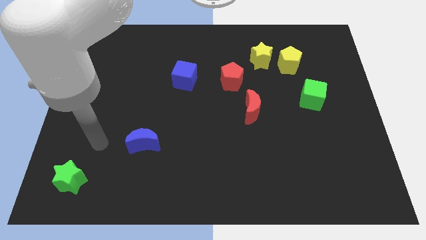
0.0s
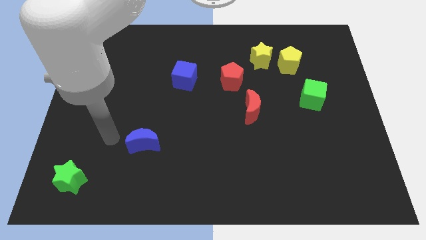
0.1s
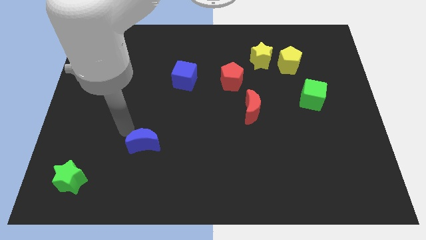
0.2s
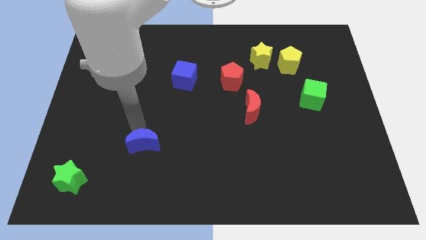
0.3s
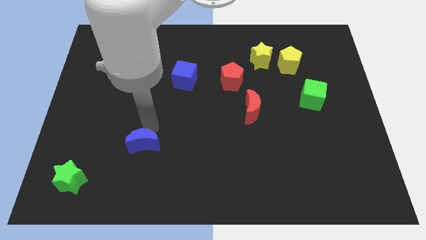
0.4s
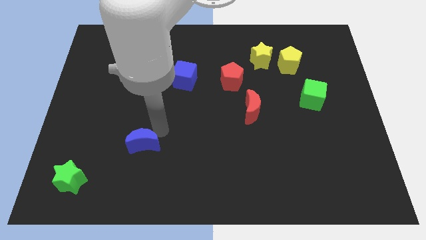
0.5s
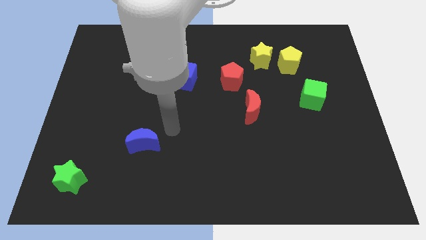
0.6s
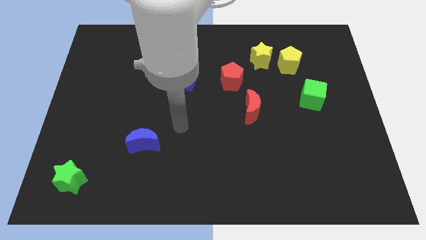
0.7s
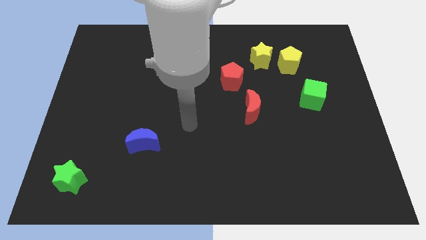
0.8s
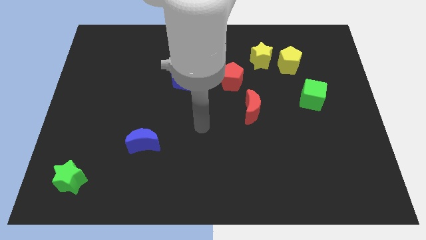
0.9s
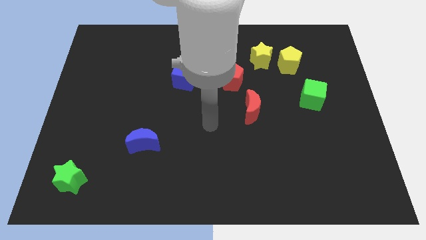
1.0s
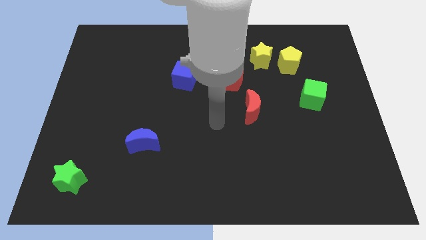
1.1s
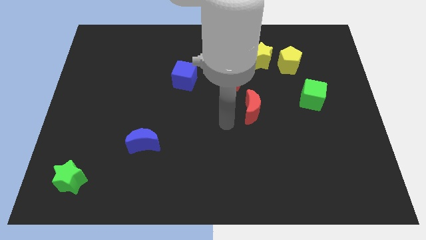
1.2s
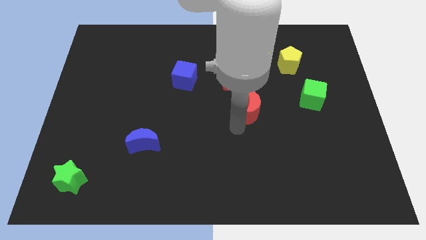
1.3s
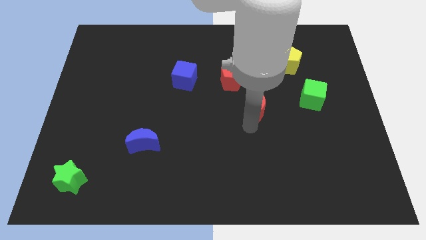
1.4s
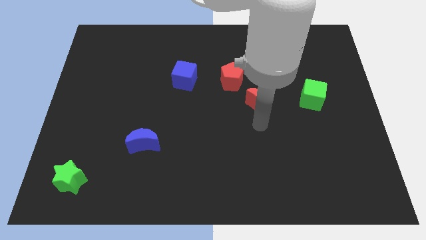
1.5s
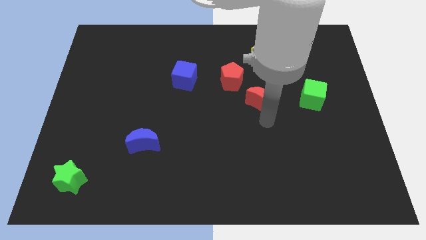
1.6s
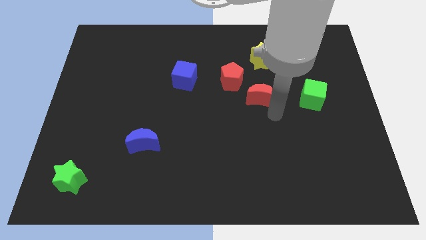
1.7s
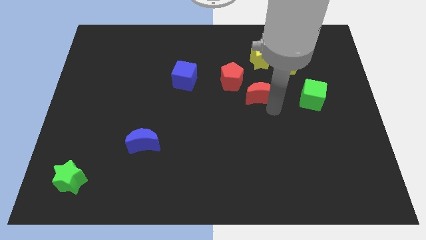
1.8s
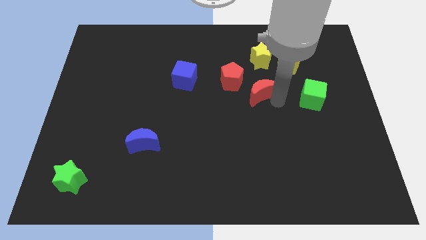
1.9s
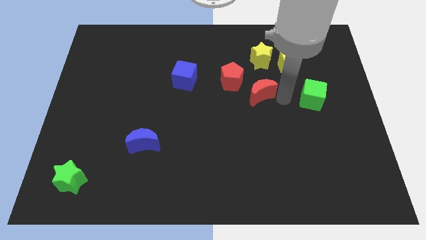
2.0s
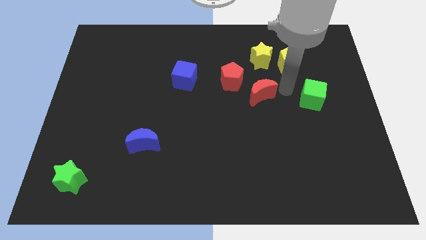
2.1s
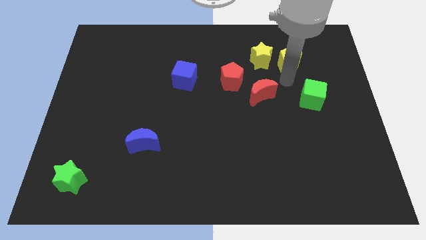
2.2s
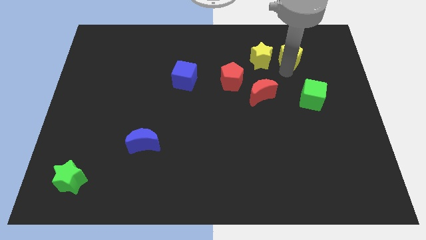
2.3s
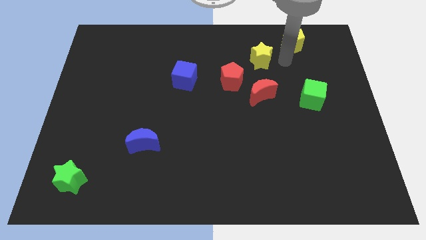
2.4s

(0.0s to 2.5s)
pull the yellow star apart from the yellow pentagon

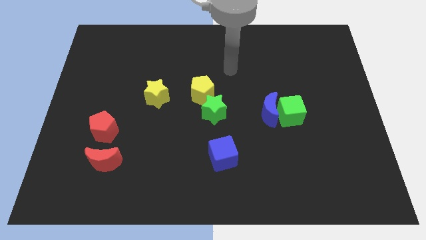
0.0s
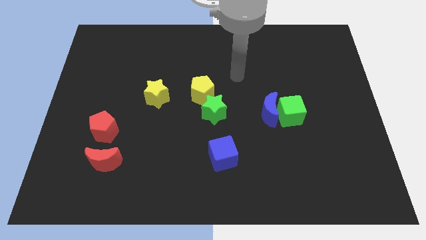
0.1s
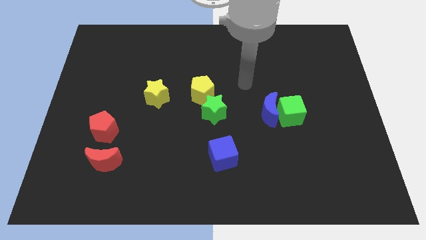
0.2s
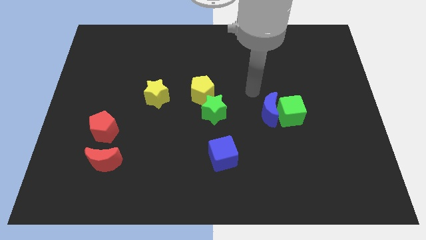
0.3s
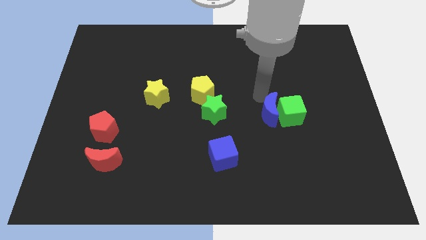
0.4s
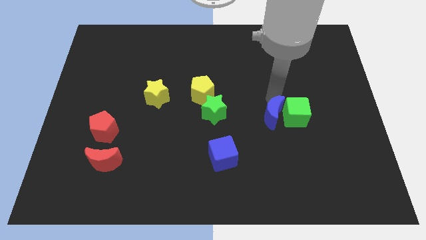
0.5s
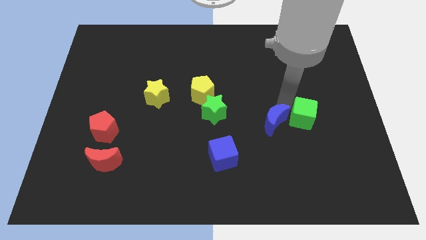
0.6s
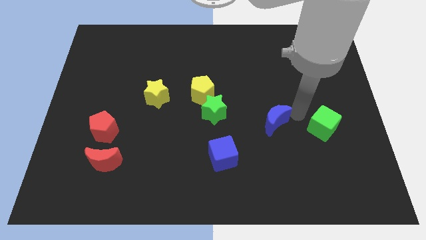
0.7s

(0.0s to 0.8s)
separate the blue moon from the green cube

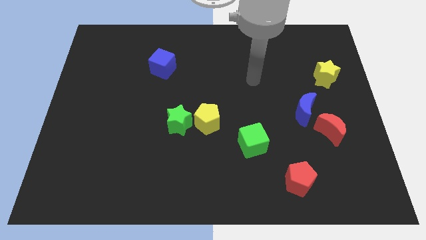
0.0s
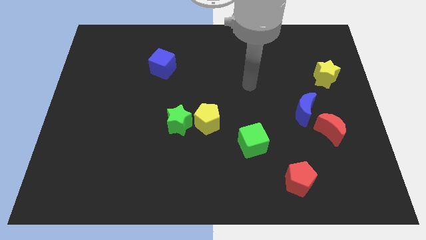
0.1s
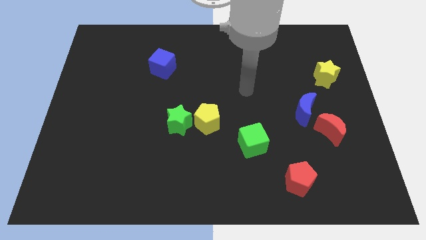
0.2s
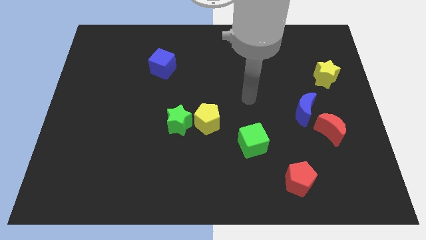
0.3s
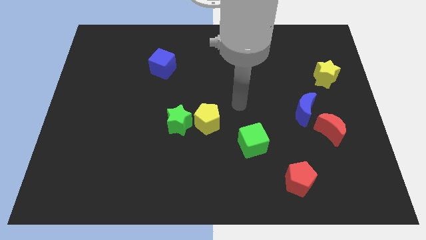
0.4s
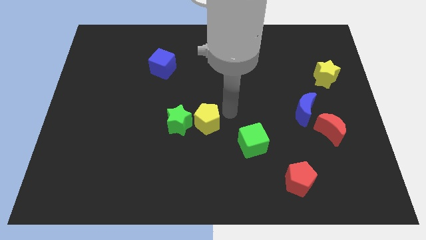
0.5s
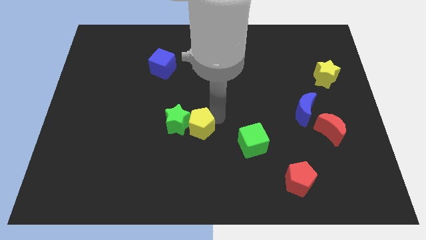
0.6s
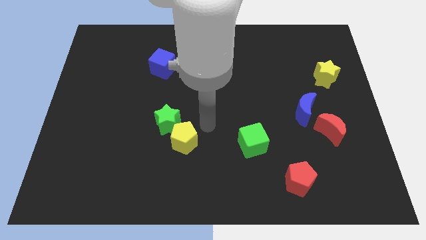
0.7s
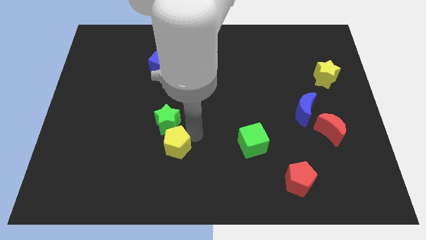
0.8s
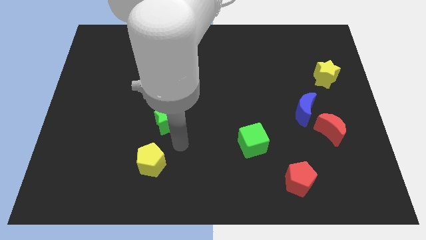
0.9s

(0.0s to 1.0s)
move the green star away from the yellow pentagon

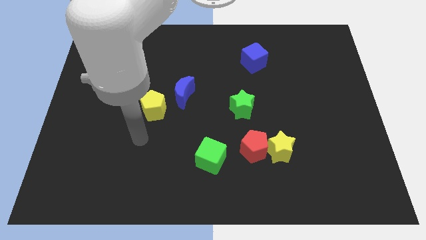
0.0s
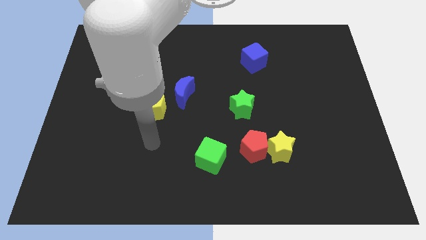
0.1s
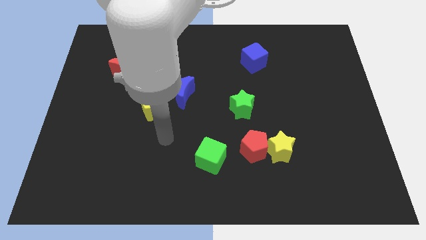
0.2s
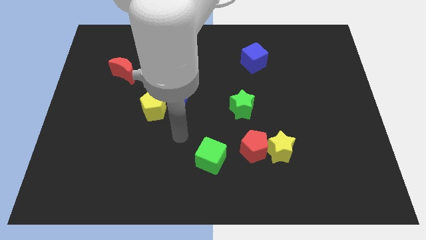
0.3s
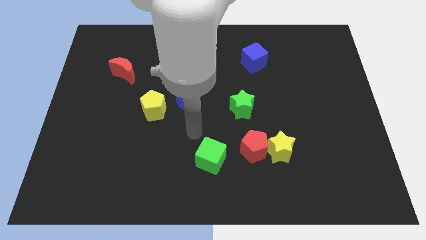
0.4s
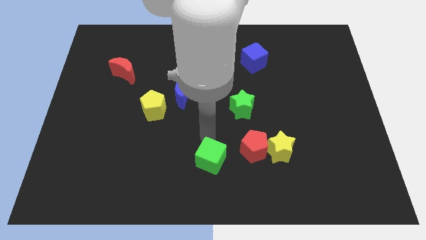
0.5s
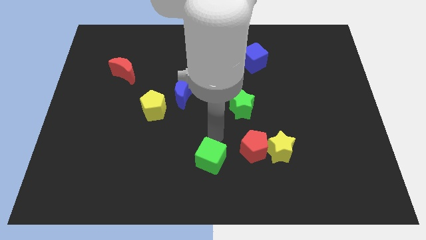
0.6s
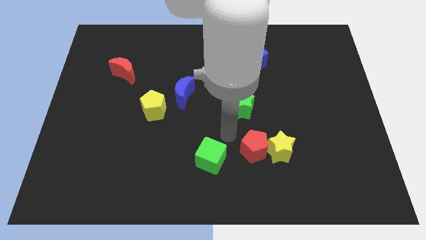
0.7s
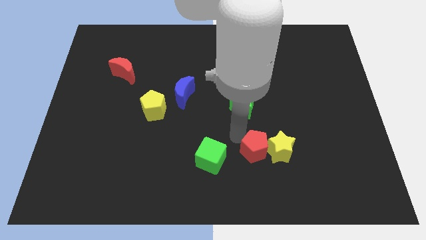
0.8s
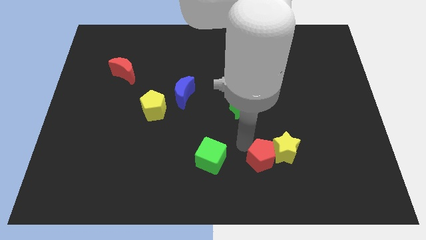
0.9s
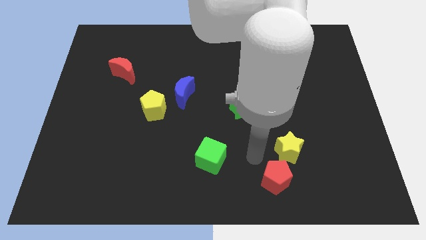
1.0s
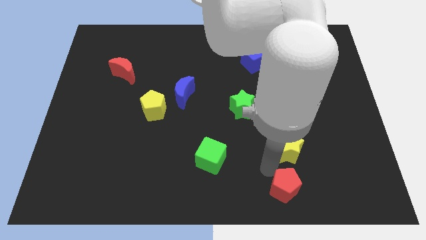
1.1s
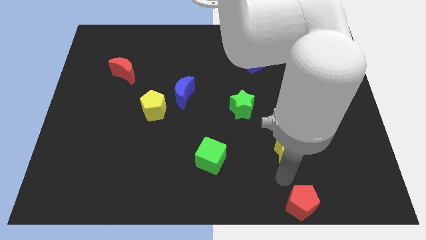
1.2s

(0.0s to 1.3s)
separate the yellow star from the red pentagon

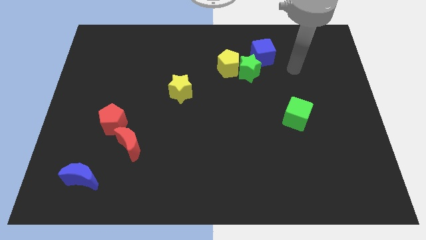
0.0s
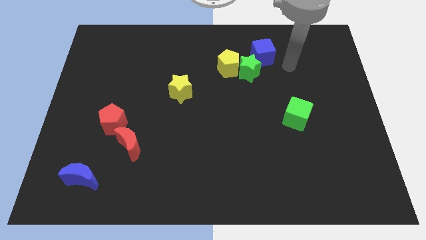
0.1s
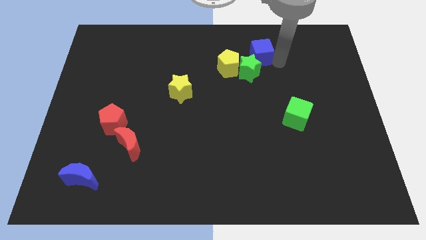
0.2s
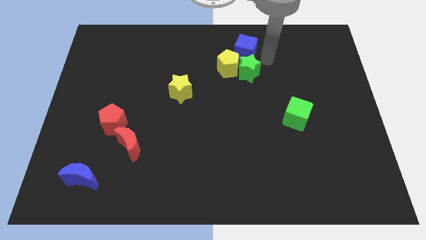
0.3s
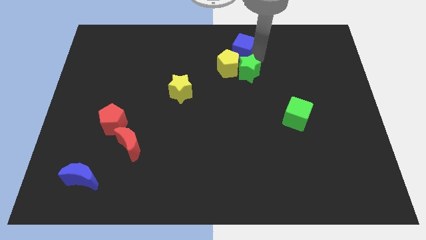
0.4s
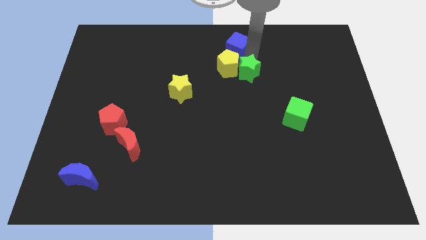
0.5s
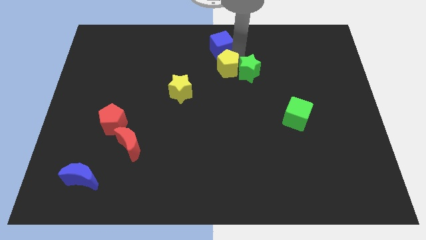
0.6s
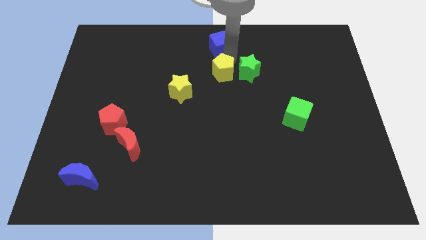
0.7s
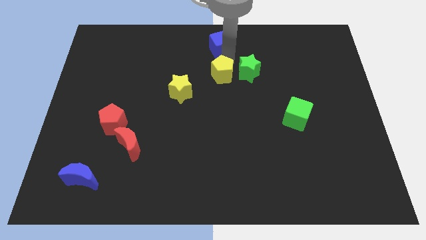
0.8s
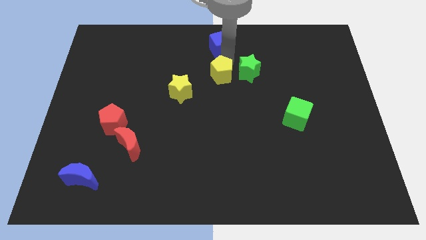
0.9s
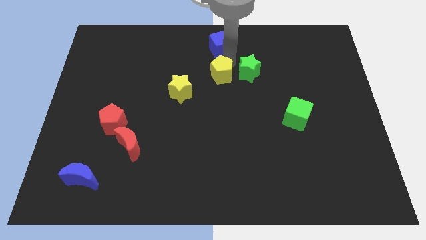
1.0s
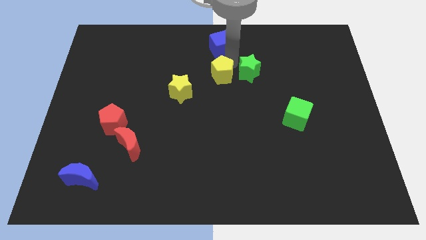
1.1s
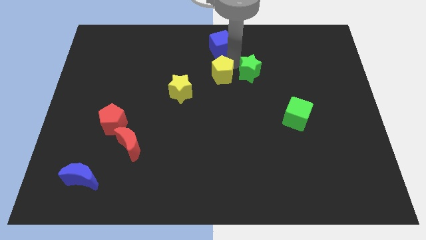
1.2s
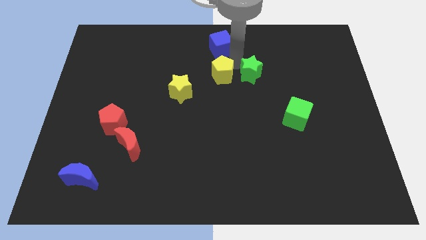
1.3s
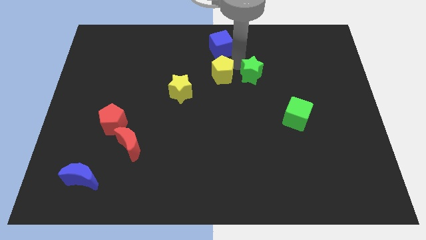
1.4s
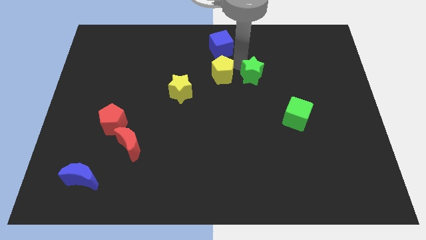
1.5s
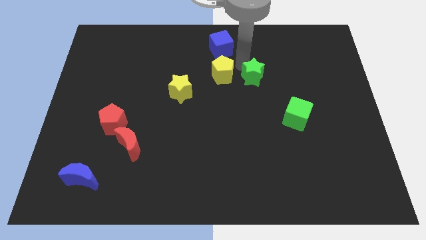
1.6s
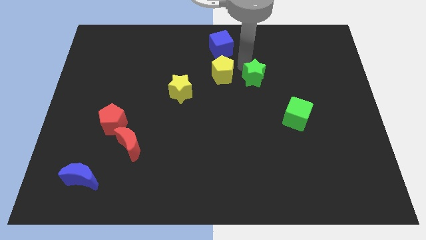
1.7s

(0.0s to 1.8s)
separate the green star from the yellow pentagon and blue cube

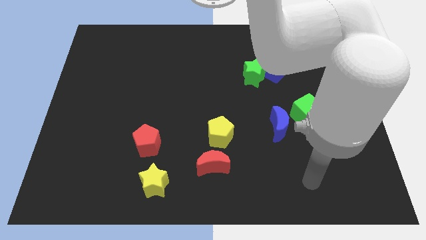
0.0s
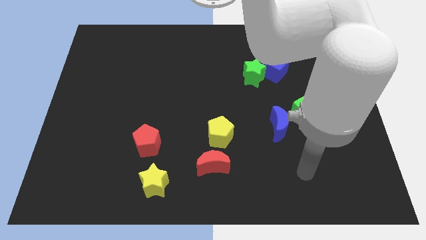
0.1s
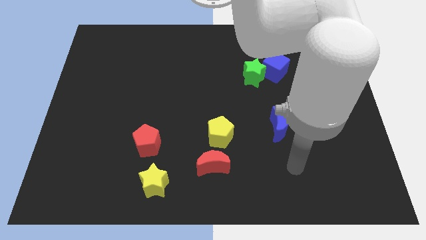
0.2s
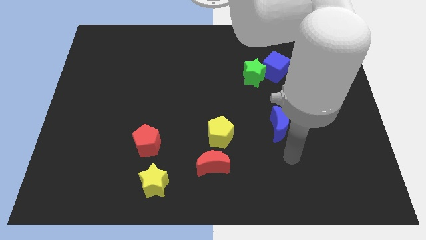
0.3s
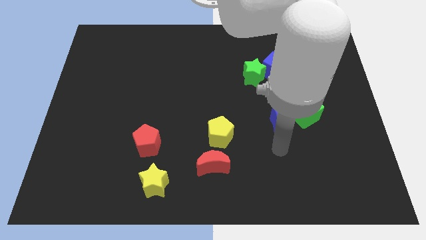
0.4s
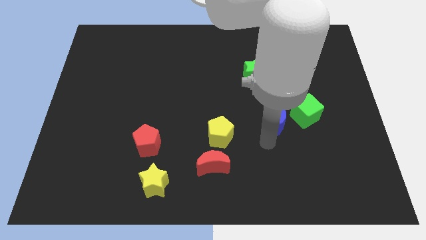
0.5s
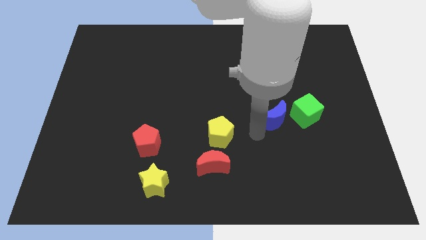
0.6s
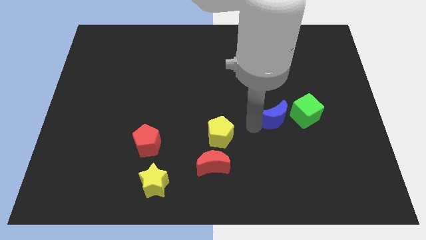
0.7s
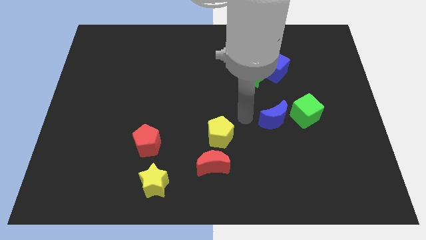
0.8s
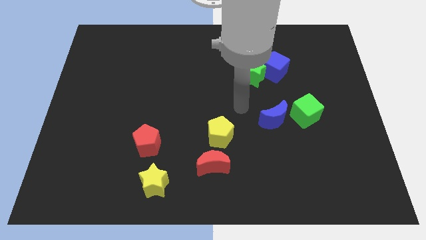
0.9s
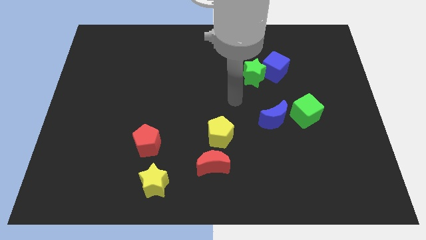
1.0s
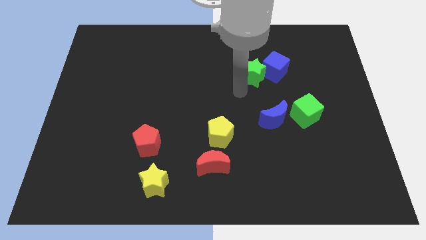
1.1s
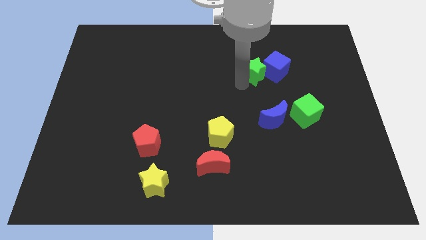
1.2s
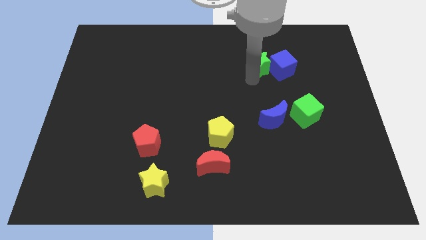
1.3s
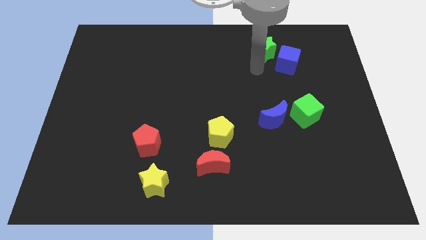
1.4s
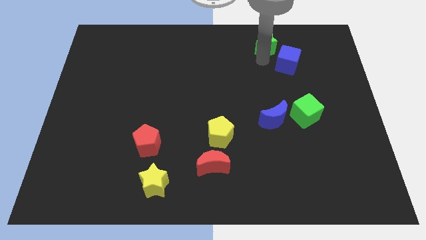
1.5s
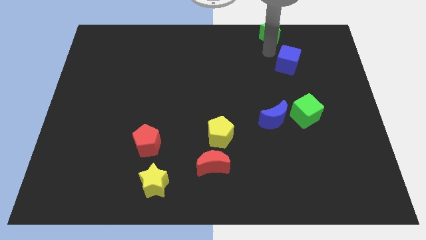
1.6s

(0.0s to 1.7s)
move the blue cube away from the green star
